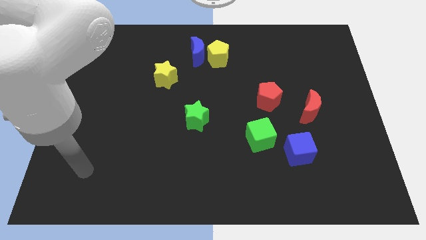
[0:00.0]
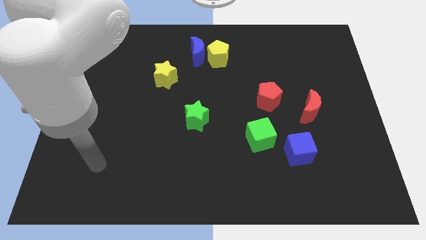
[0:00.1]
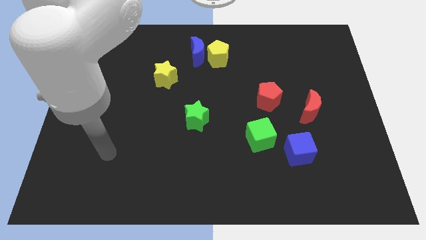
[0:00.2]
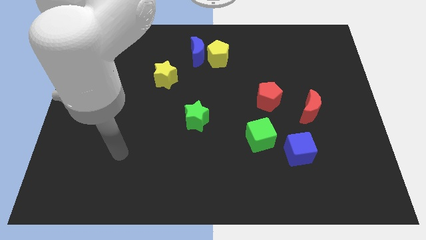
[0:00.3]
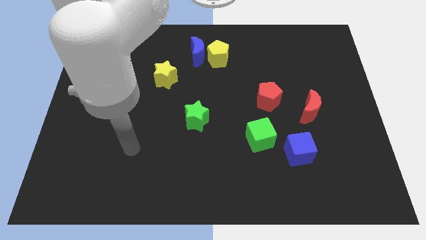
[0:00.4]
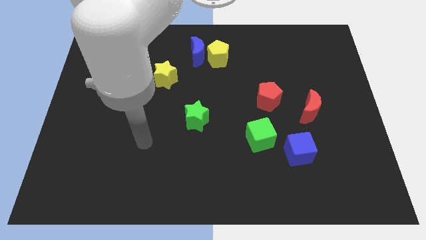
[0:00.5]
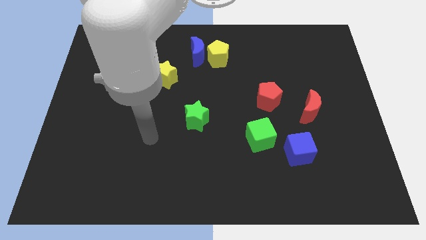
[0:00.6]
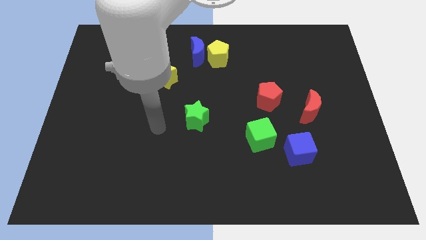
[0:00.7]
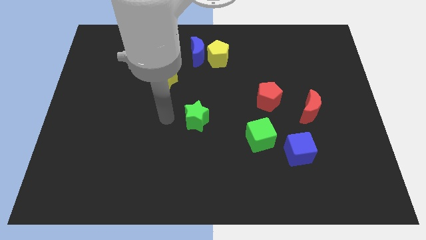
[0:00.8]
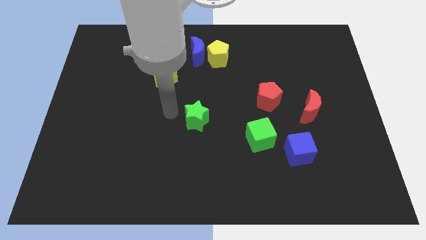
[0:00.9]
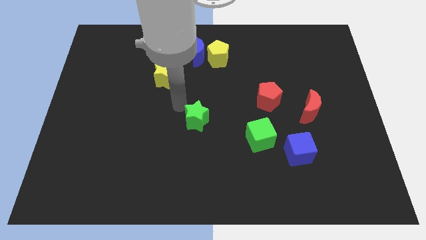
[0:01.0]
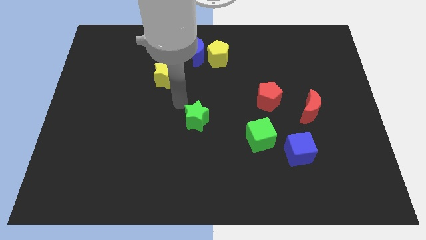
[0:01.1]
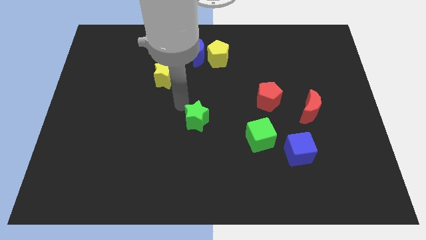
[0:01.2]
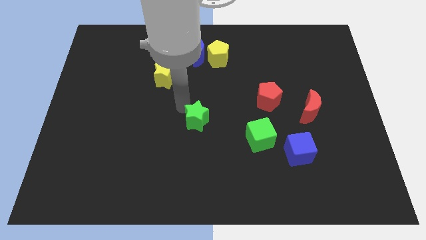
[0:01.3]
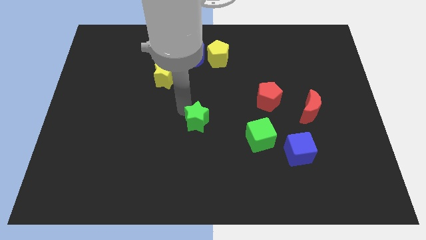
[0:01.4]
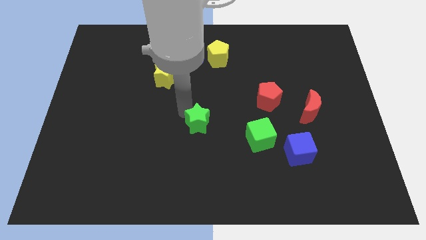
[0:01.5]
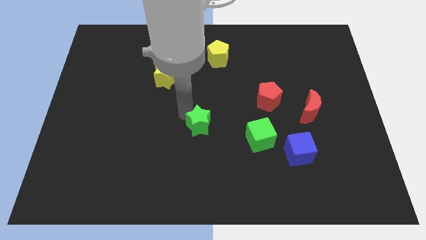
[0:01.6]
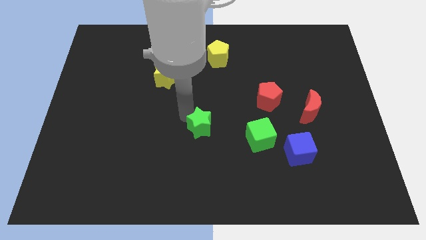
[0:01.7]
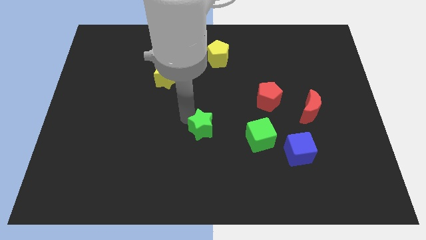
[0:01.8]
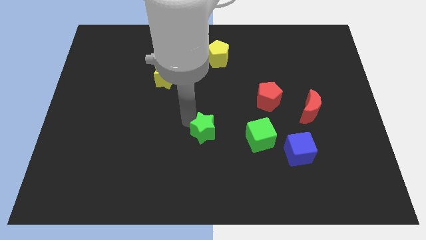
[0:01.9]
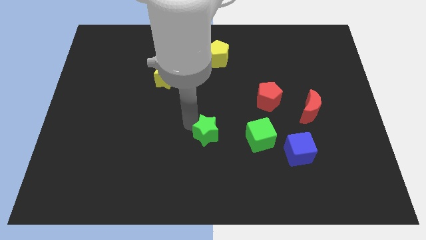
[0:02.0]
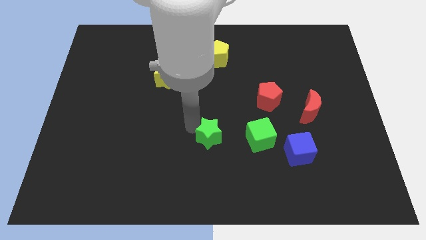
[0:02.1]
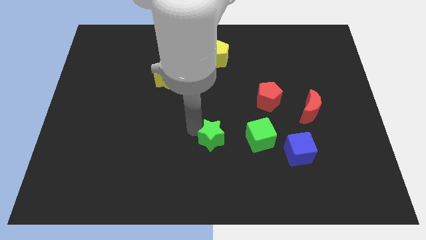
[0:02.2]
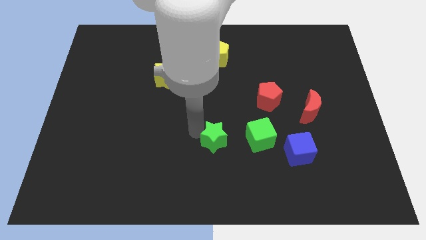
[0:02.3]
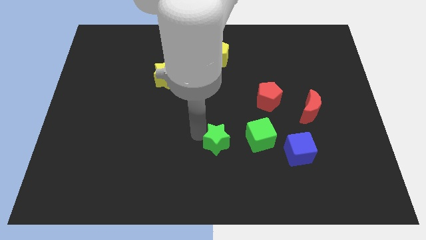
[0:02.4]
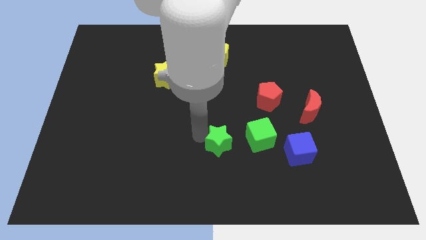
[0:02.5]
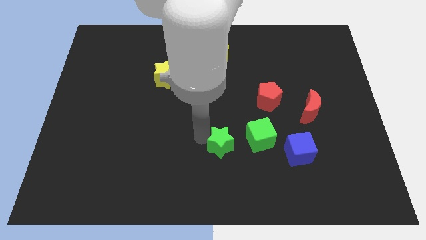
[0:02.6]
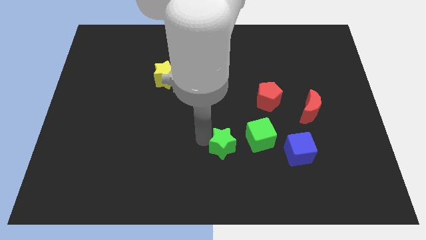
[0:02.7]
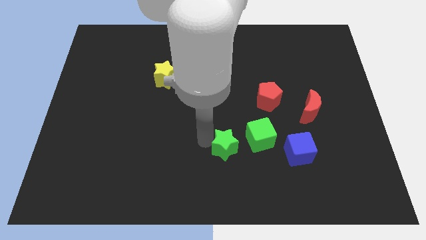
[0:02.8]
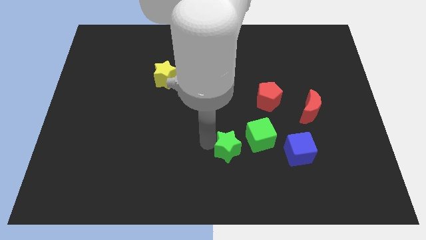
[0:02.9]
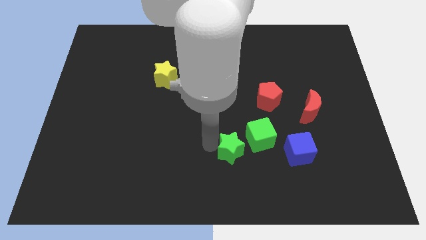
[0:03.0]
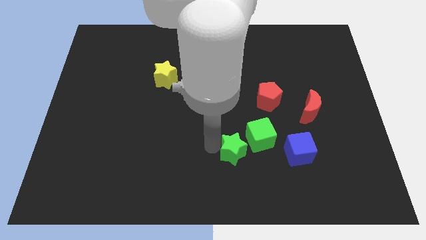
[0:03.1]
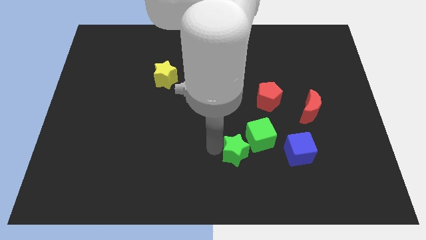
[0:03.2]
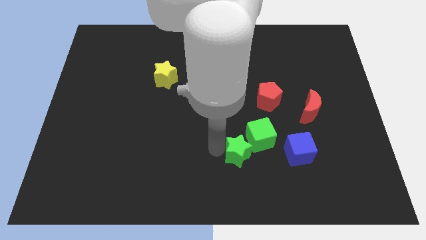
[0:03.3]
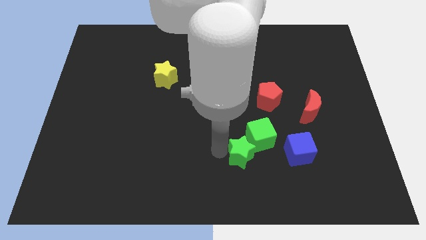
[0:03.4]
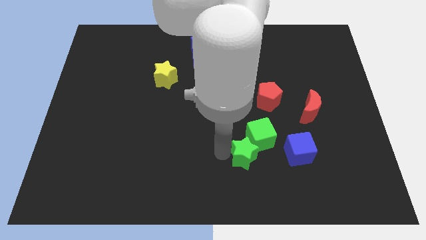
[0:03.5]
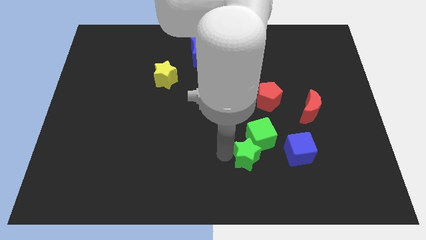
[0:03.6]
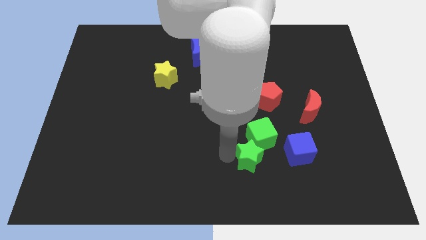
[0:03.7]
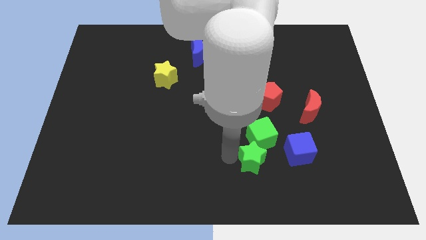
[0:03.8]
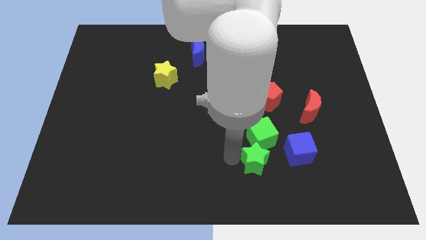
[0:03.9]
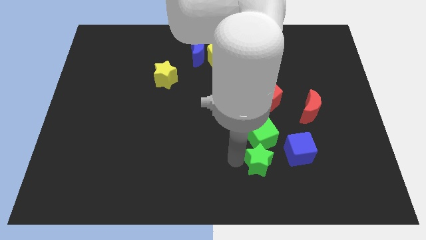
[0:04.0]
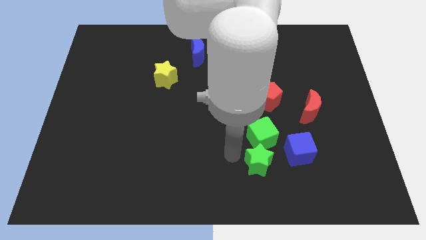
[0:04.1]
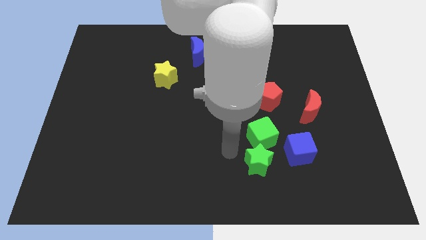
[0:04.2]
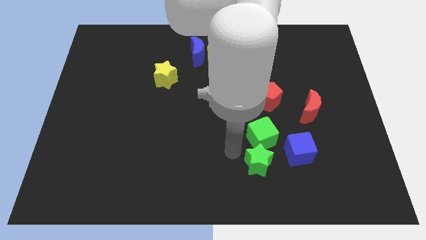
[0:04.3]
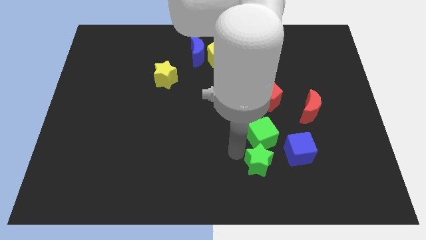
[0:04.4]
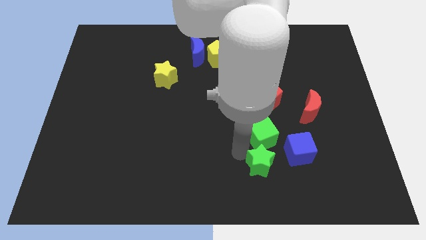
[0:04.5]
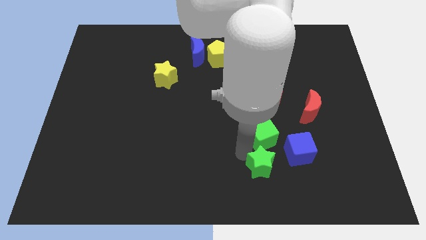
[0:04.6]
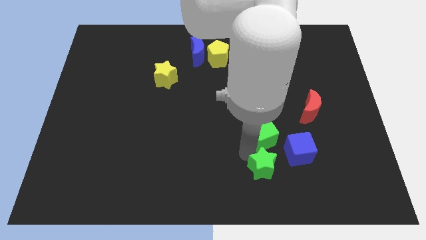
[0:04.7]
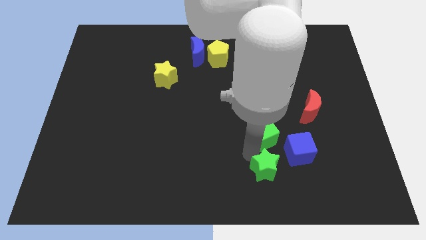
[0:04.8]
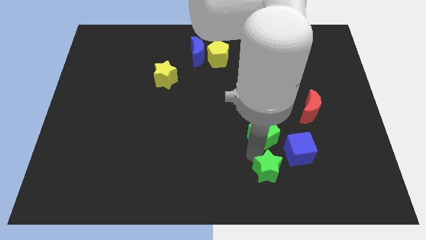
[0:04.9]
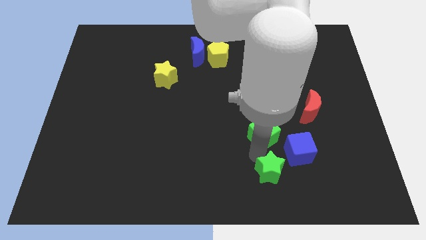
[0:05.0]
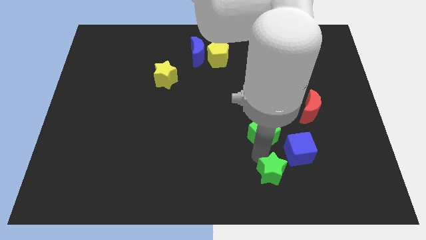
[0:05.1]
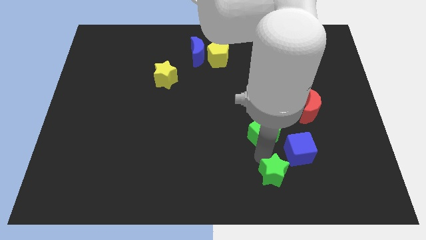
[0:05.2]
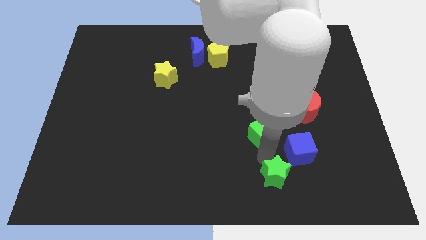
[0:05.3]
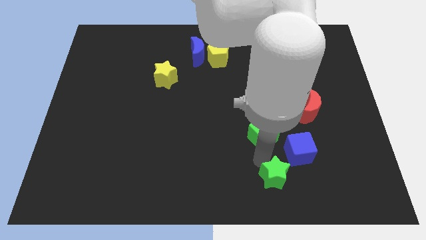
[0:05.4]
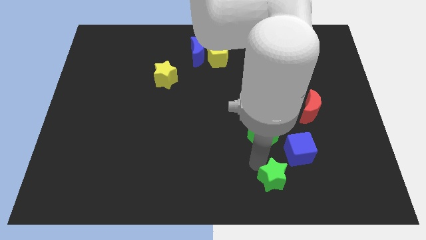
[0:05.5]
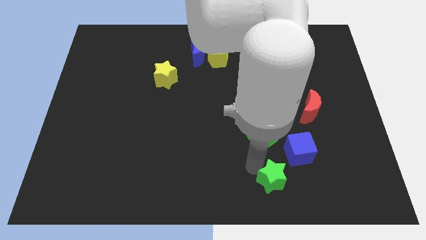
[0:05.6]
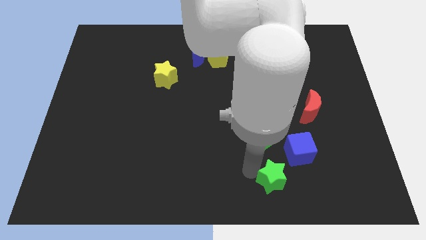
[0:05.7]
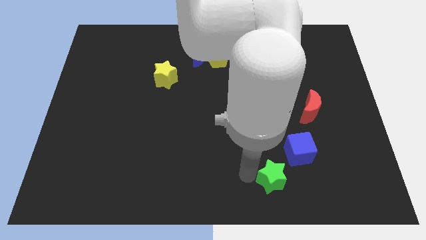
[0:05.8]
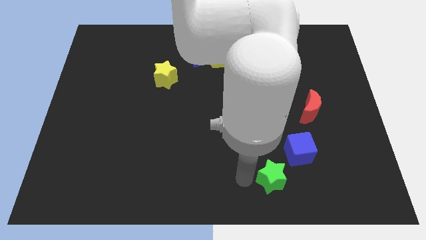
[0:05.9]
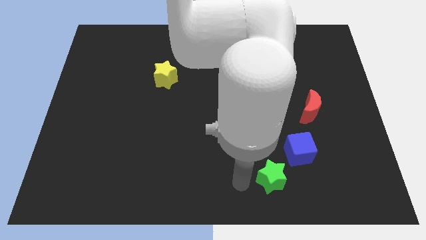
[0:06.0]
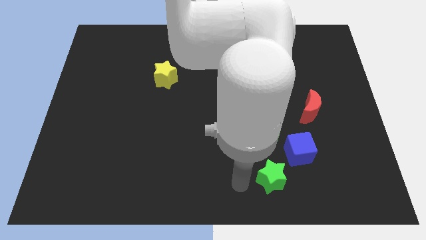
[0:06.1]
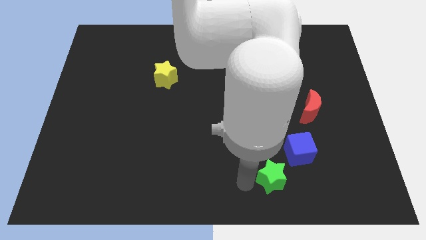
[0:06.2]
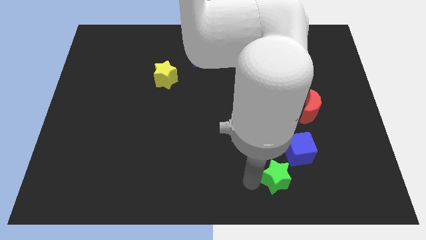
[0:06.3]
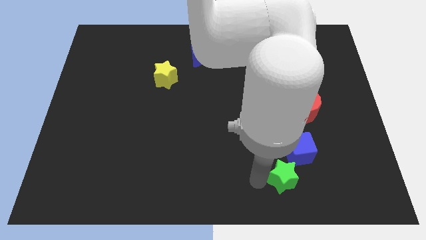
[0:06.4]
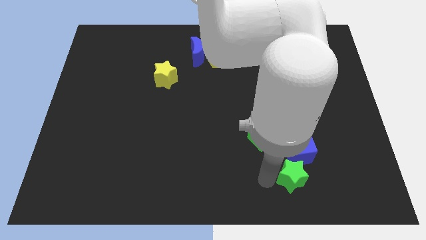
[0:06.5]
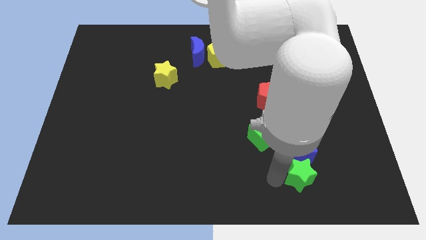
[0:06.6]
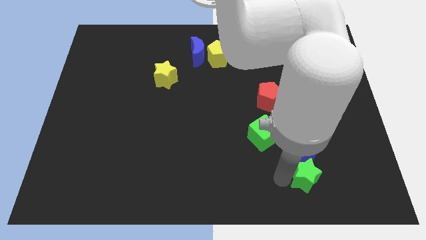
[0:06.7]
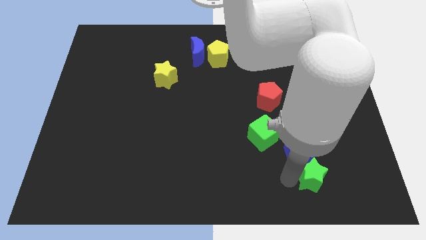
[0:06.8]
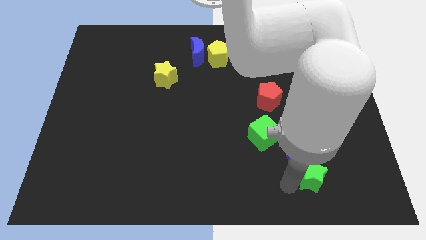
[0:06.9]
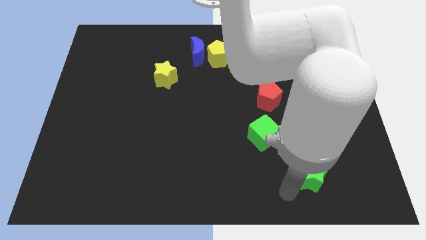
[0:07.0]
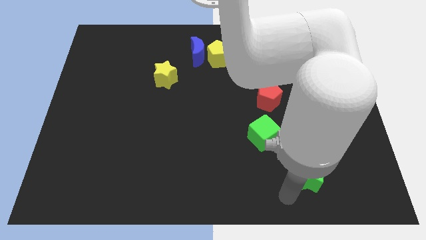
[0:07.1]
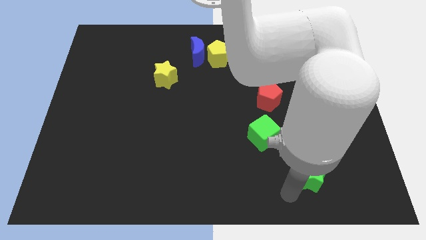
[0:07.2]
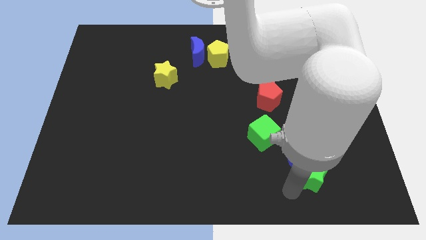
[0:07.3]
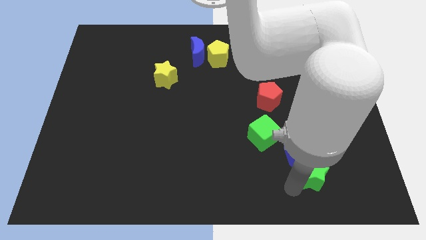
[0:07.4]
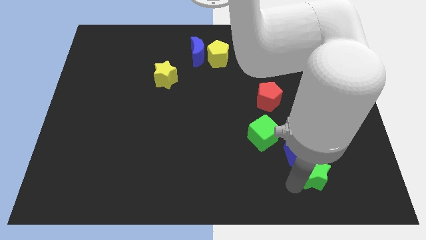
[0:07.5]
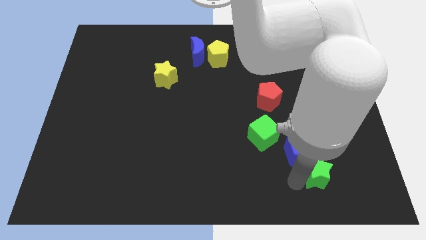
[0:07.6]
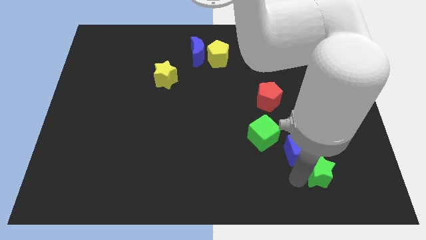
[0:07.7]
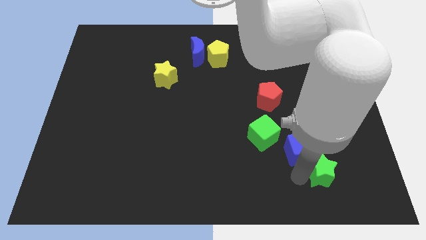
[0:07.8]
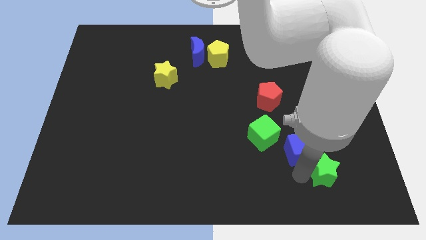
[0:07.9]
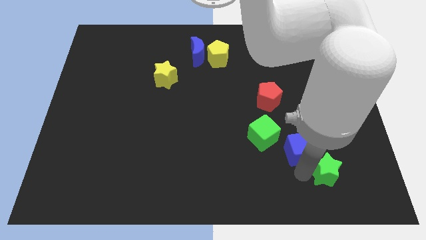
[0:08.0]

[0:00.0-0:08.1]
push the green star just right of the blue cube
